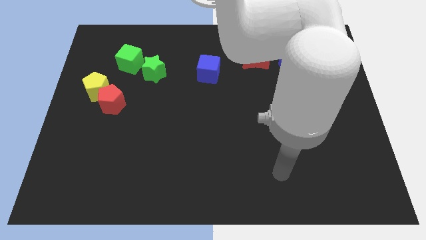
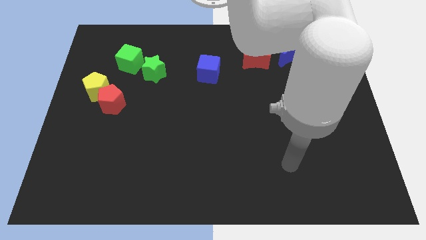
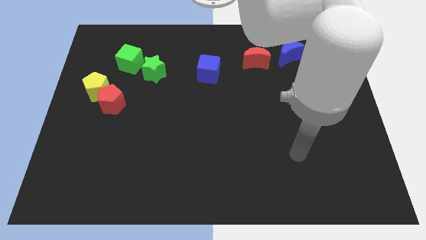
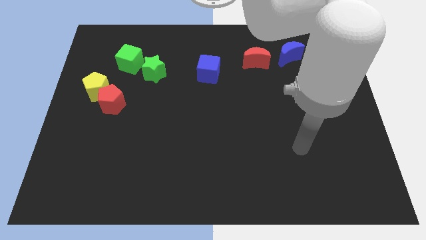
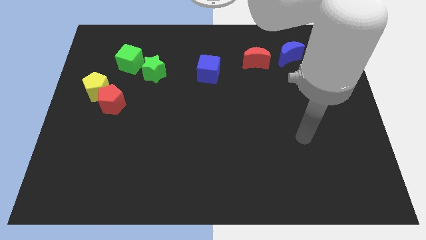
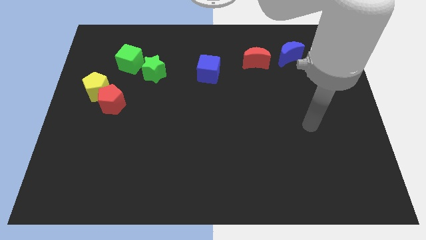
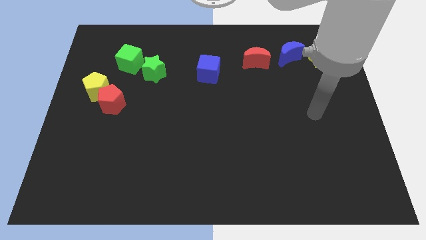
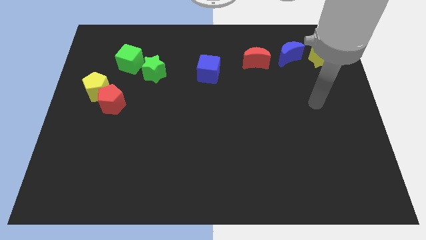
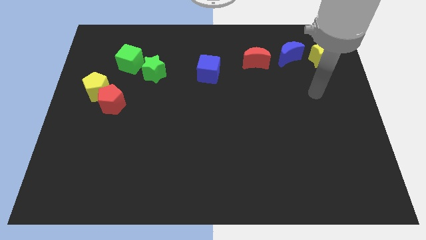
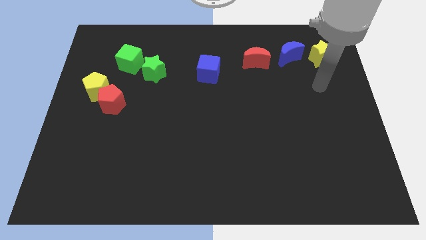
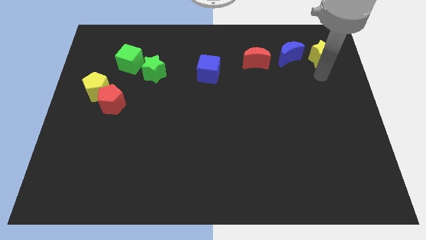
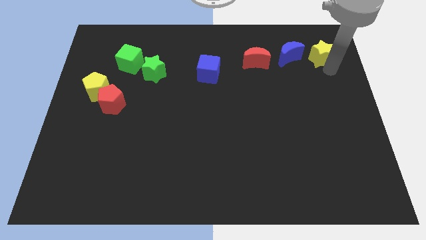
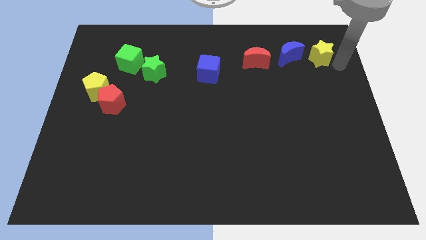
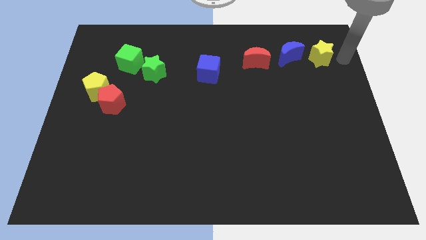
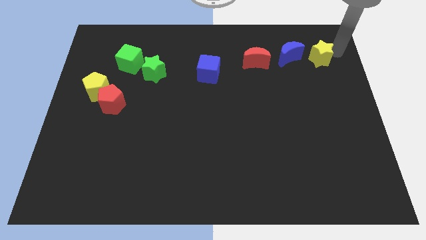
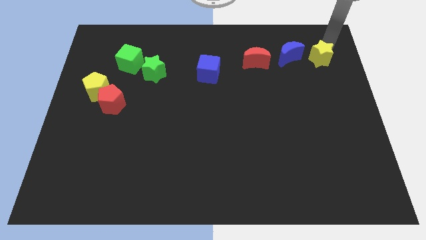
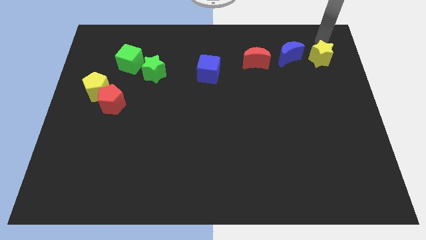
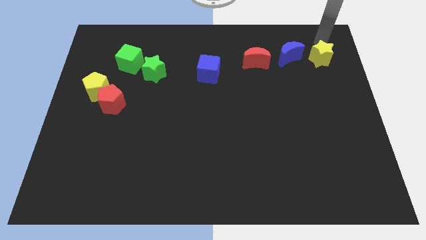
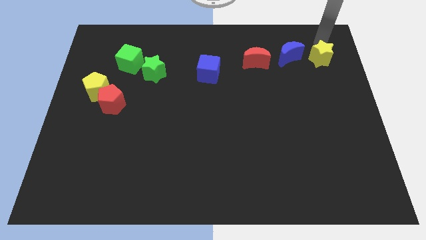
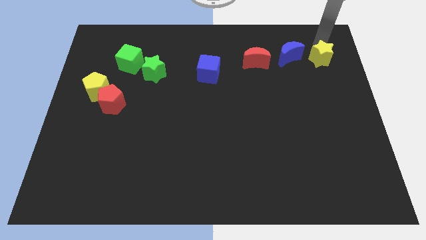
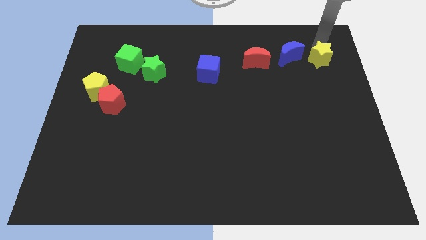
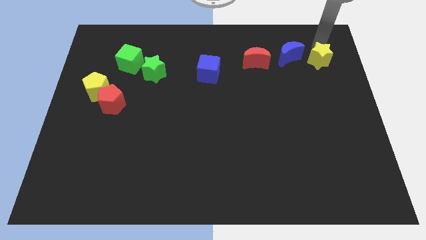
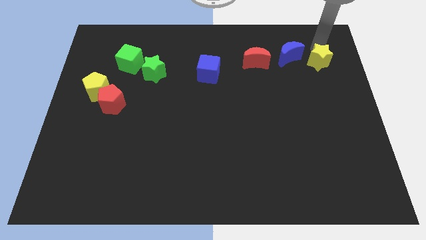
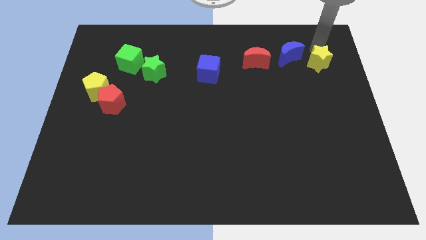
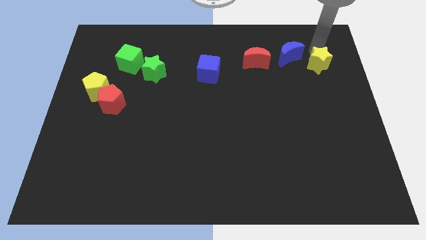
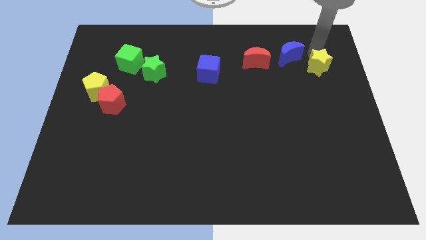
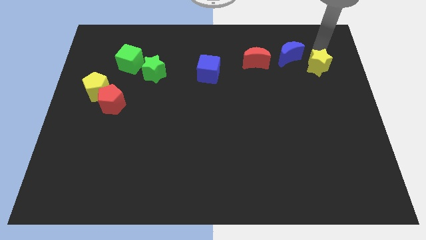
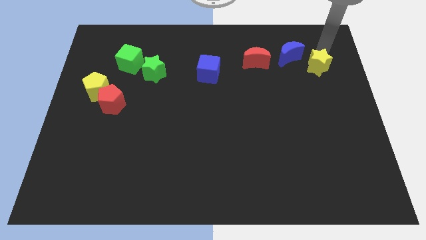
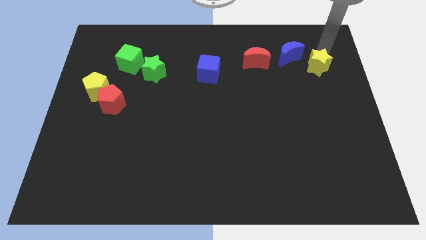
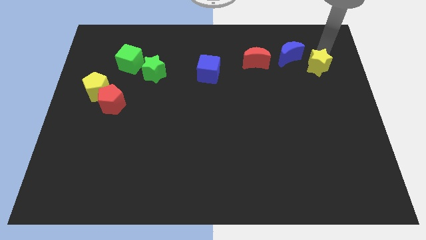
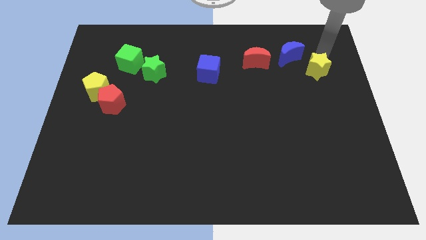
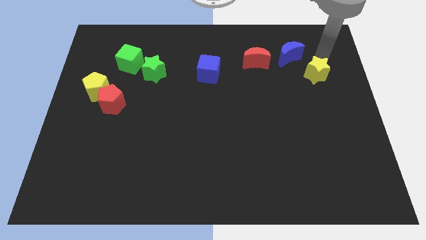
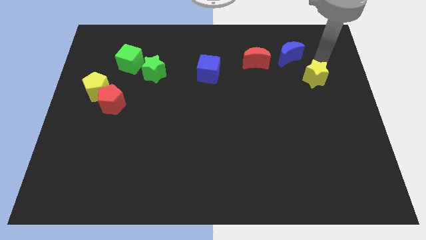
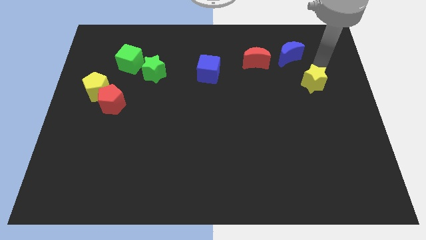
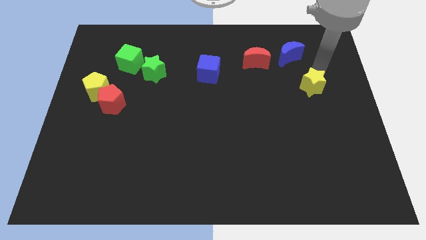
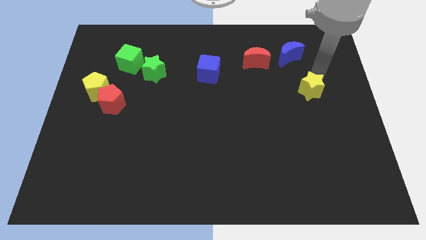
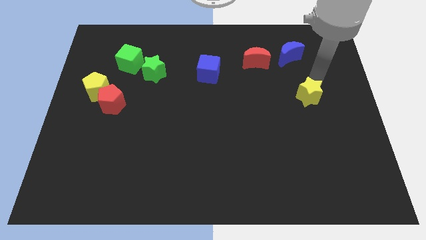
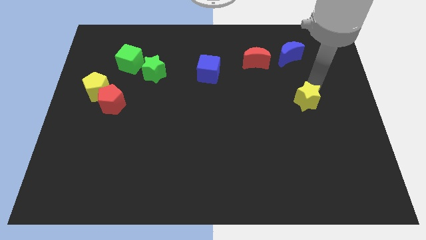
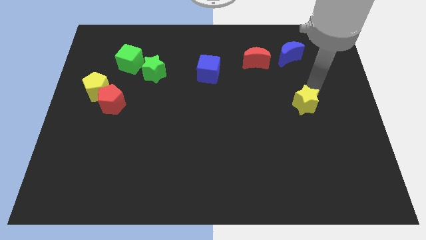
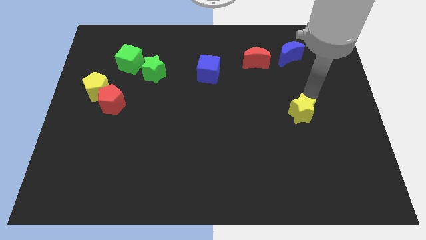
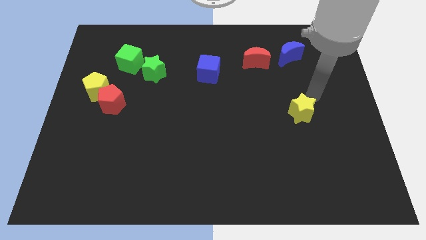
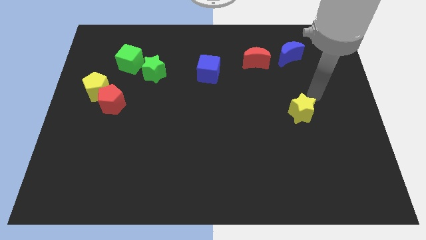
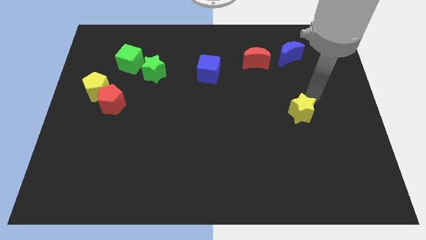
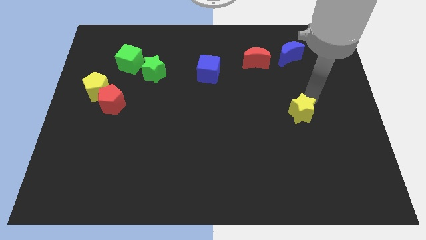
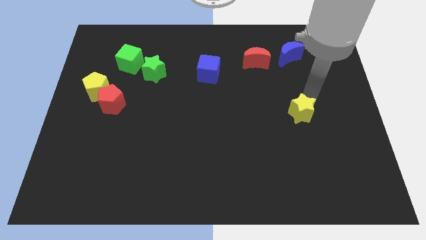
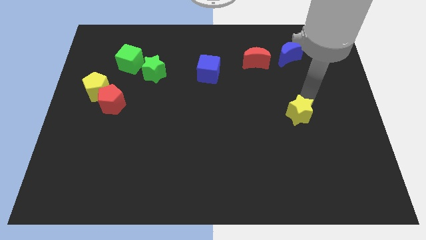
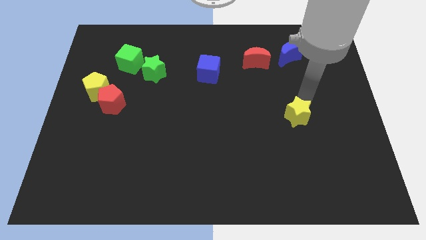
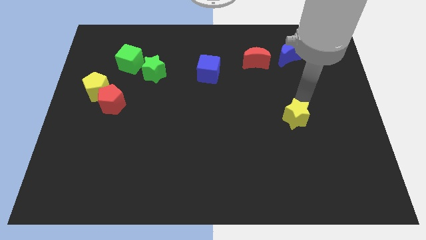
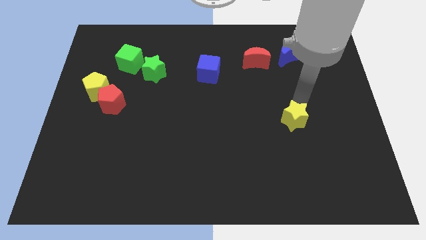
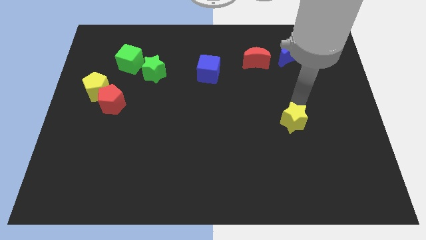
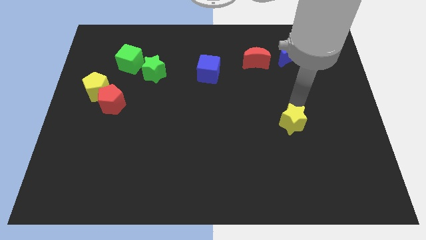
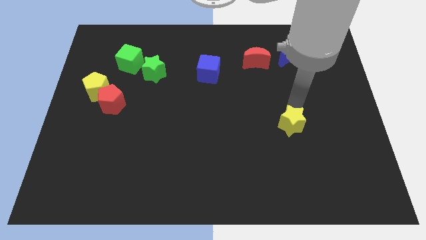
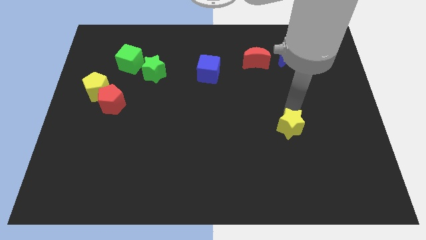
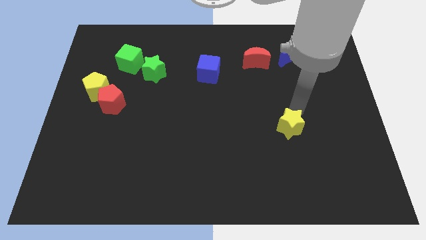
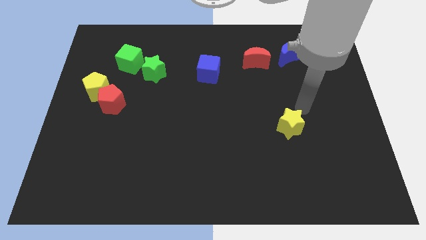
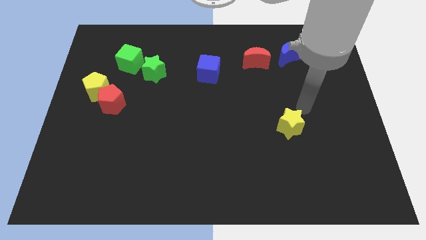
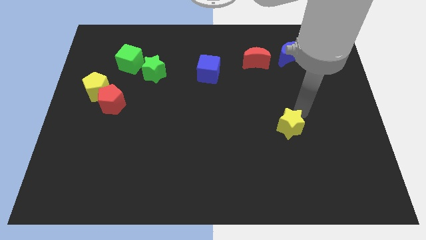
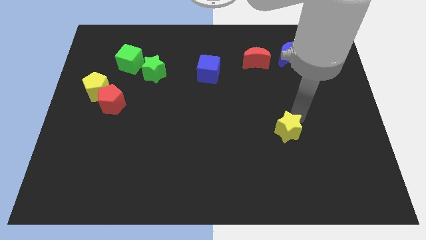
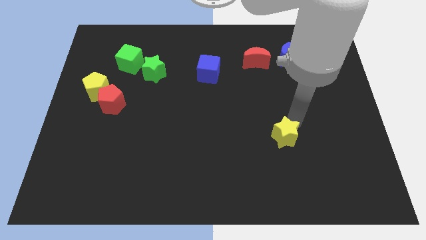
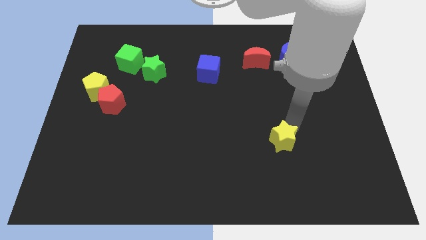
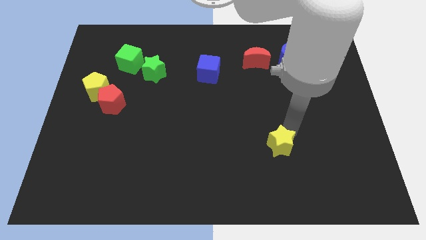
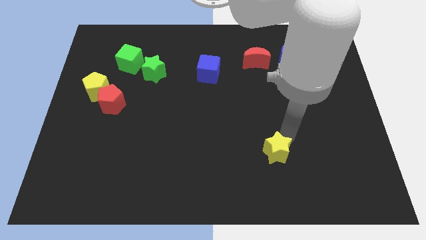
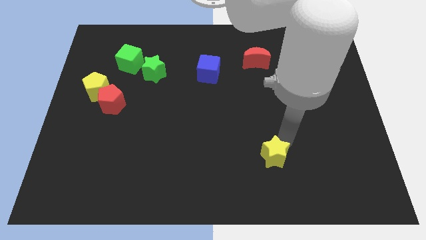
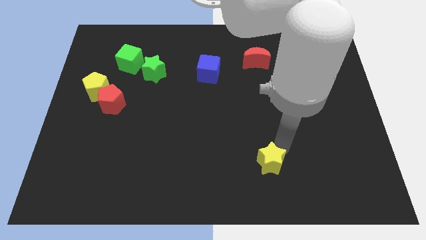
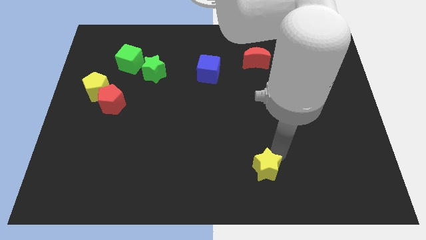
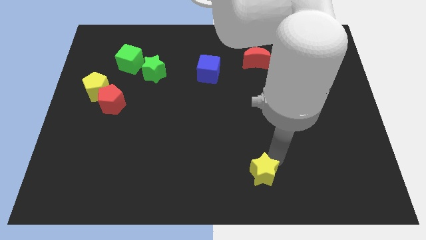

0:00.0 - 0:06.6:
put the yellow star to the bottom side
